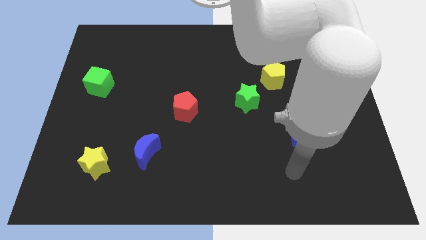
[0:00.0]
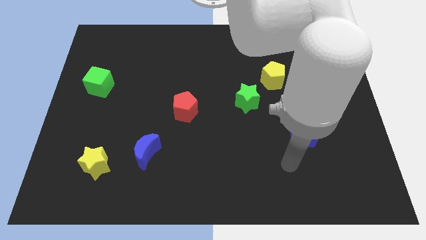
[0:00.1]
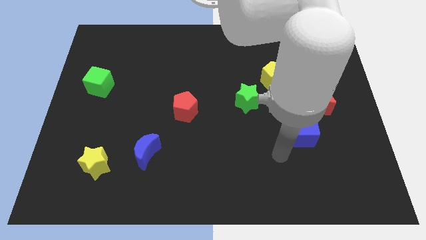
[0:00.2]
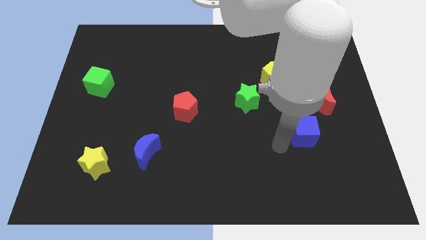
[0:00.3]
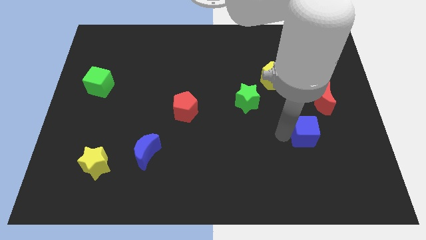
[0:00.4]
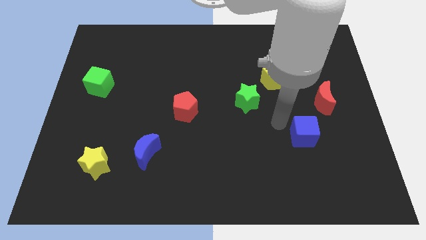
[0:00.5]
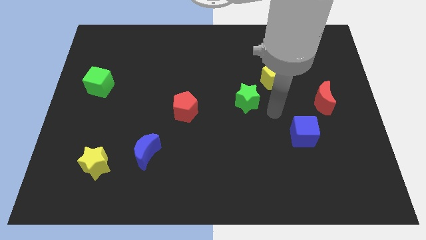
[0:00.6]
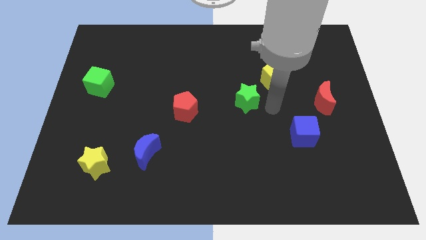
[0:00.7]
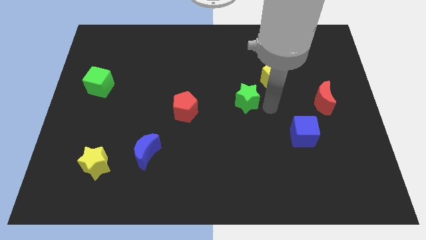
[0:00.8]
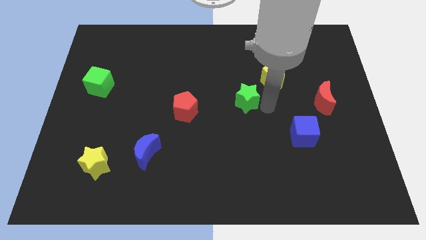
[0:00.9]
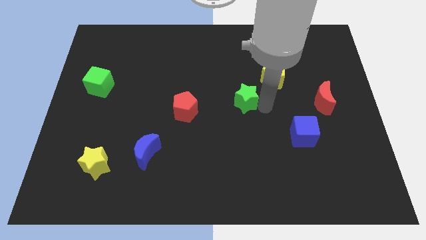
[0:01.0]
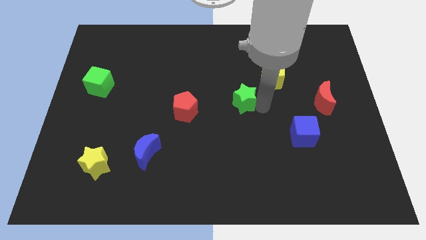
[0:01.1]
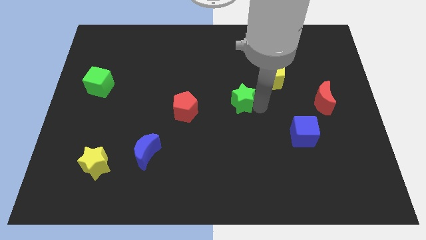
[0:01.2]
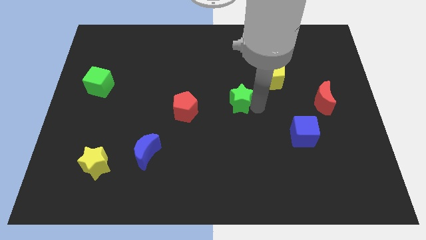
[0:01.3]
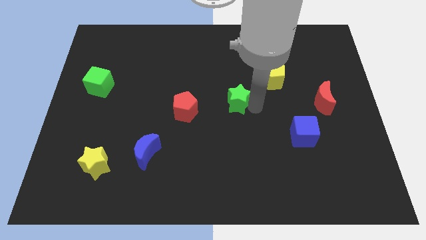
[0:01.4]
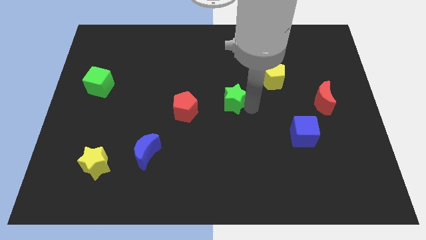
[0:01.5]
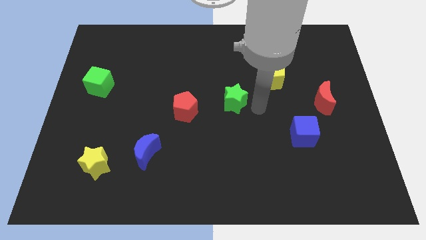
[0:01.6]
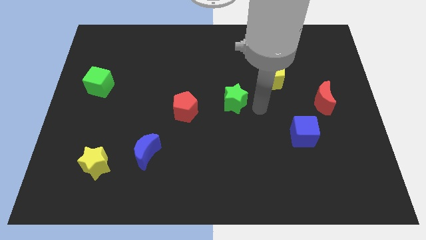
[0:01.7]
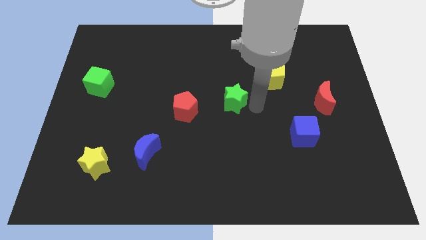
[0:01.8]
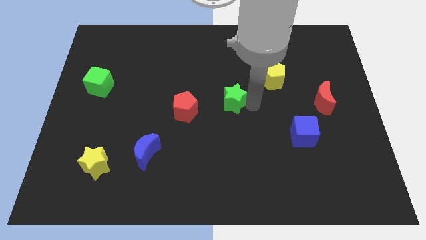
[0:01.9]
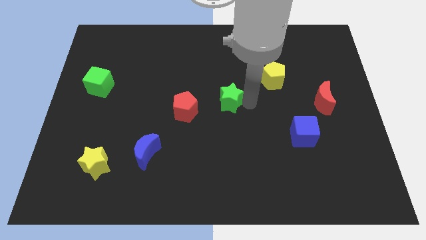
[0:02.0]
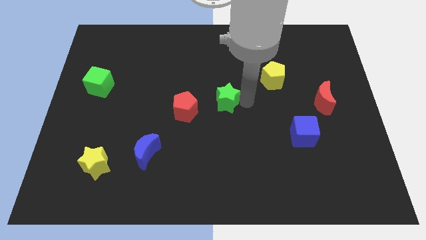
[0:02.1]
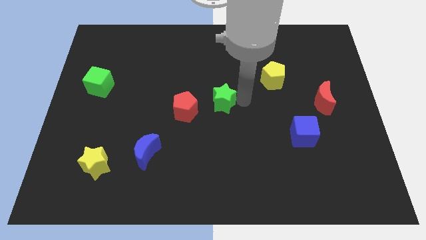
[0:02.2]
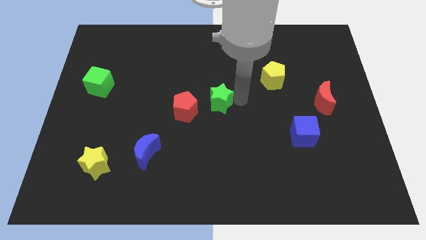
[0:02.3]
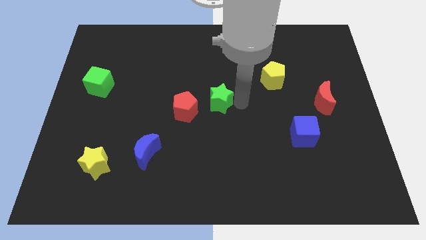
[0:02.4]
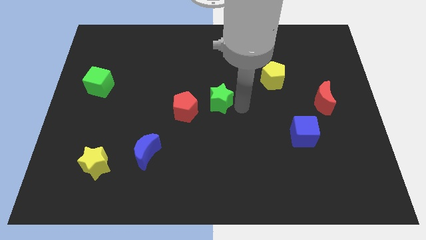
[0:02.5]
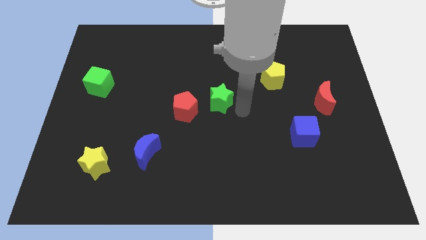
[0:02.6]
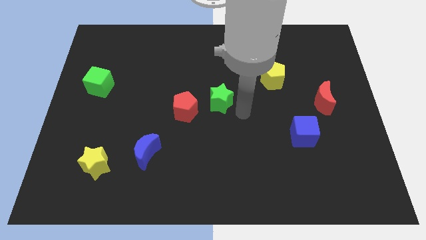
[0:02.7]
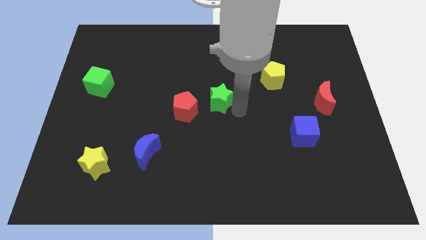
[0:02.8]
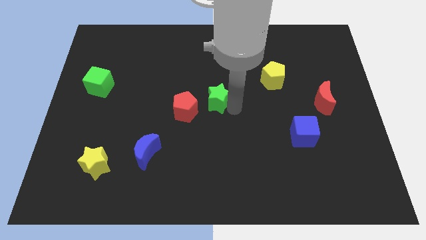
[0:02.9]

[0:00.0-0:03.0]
slide the green star to the left a bit

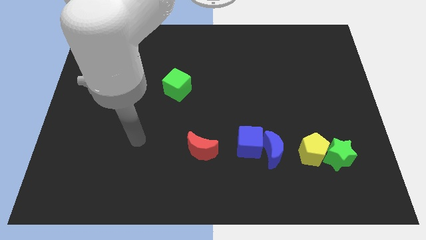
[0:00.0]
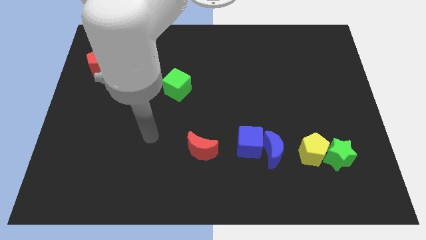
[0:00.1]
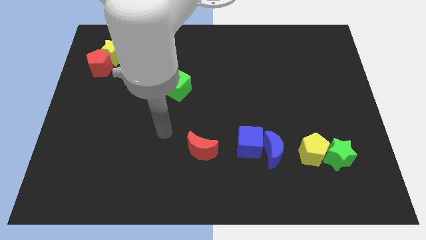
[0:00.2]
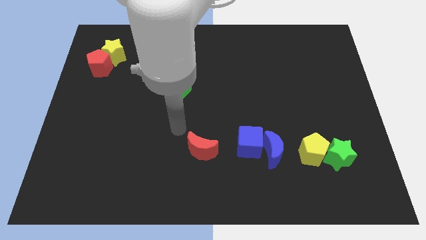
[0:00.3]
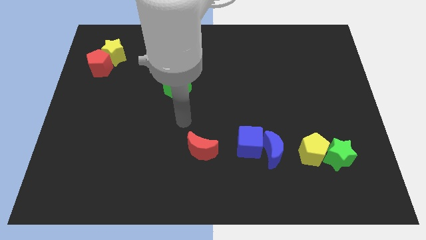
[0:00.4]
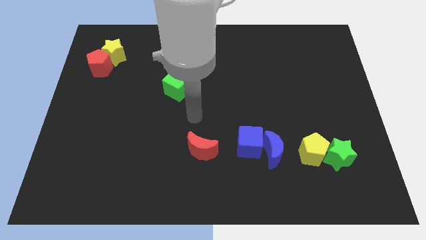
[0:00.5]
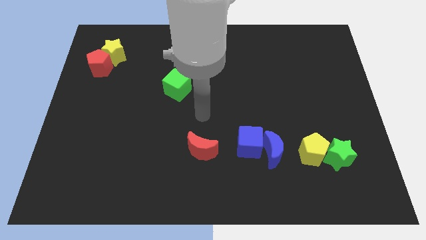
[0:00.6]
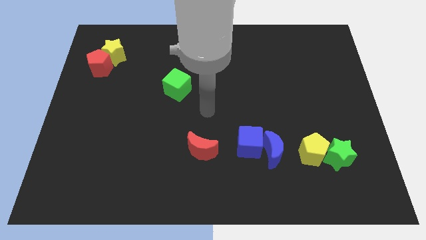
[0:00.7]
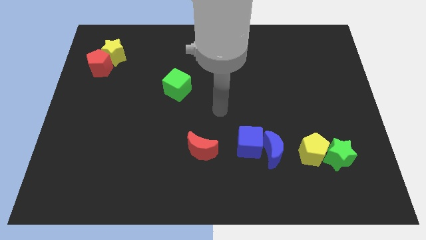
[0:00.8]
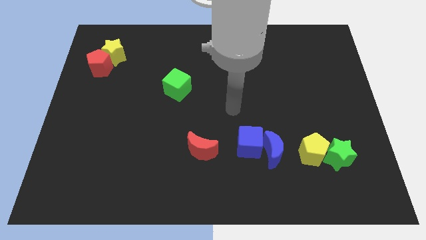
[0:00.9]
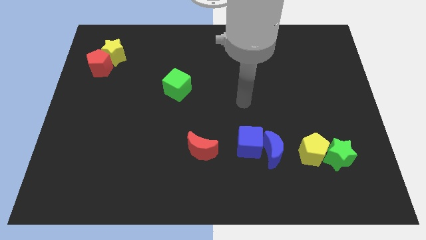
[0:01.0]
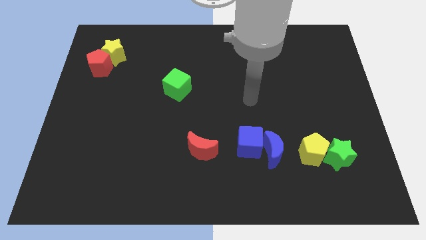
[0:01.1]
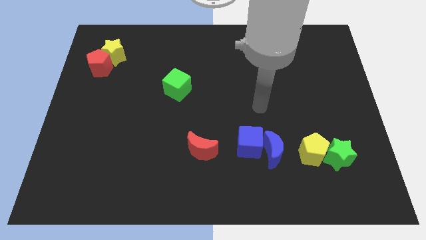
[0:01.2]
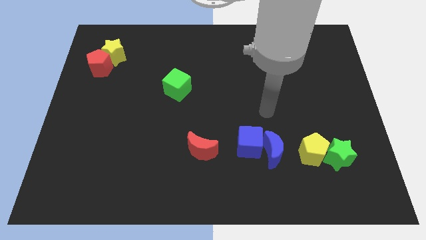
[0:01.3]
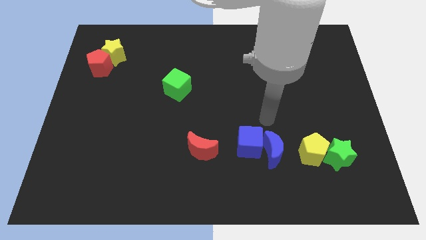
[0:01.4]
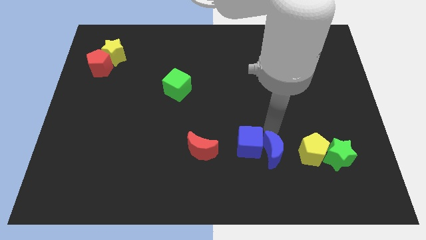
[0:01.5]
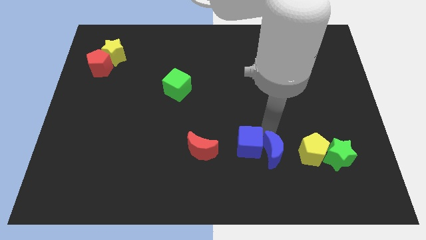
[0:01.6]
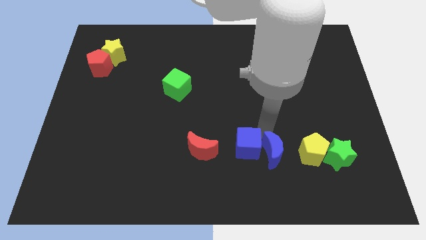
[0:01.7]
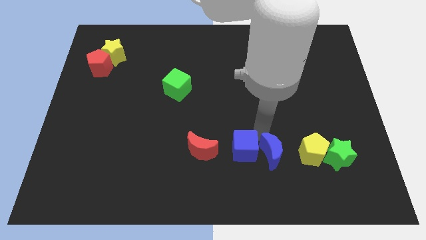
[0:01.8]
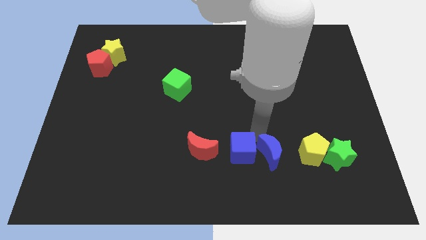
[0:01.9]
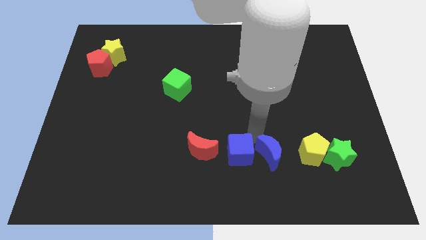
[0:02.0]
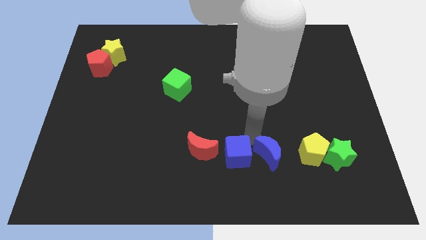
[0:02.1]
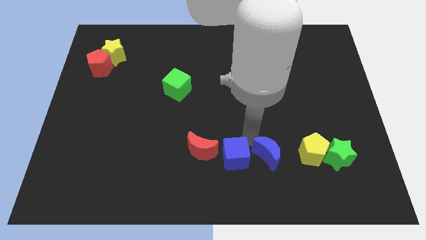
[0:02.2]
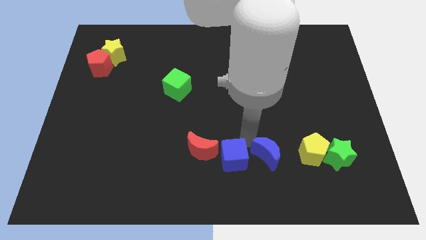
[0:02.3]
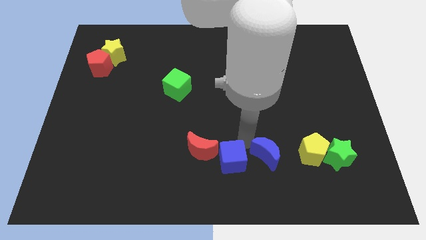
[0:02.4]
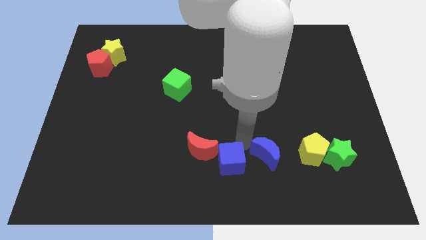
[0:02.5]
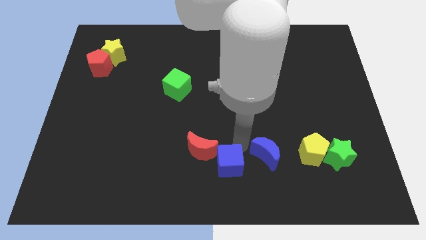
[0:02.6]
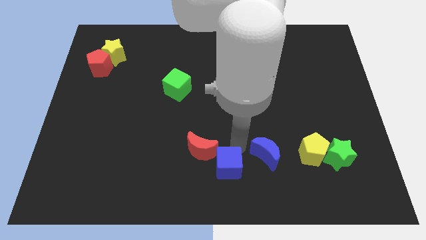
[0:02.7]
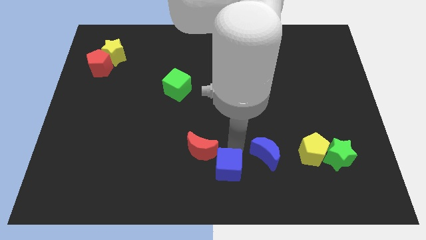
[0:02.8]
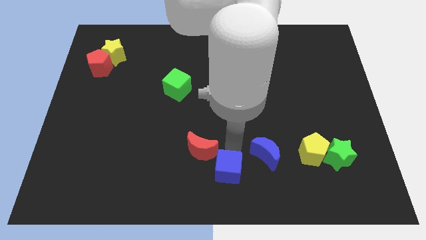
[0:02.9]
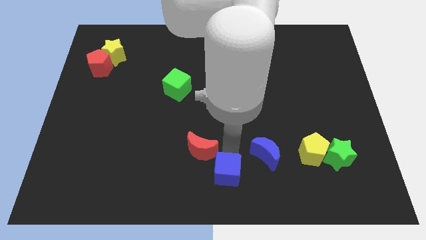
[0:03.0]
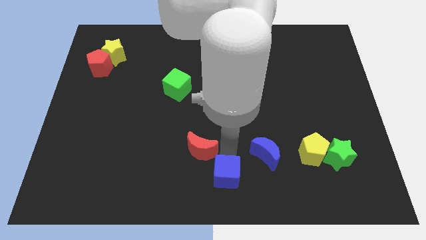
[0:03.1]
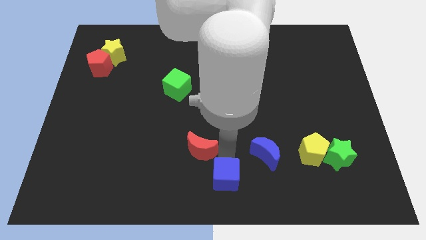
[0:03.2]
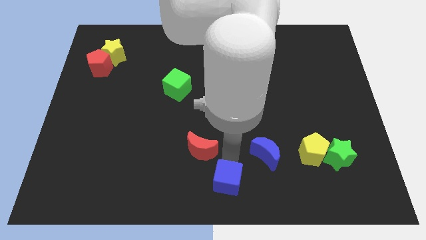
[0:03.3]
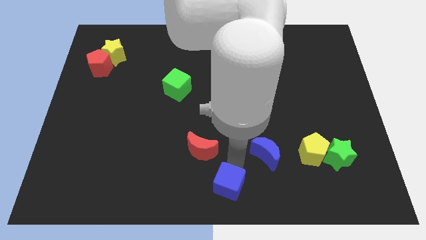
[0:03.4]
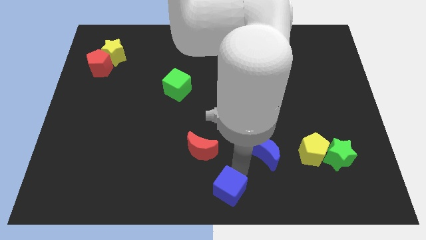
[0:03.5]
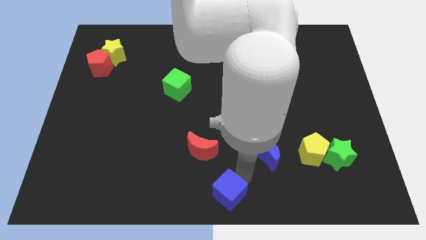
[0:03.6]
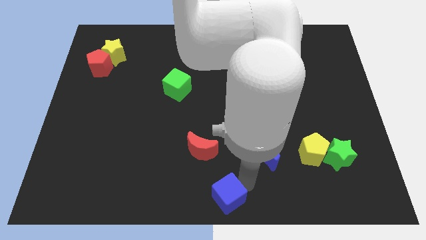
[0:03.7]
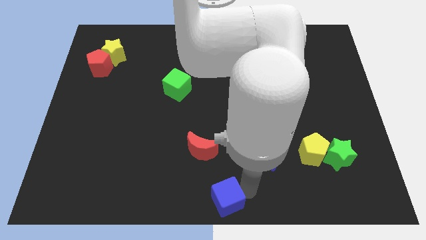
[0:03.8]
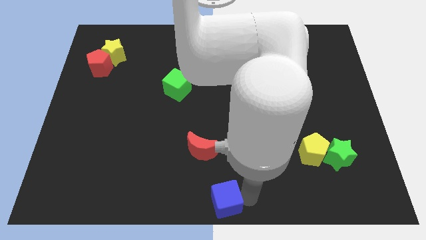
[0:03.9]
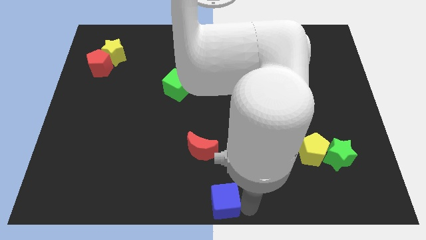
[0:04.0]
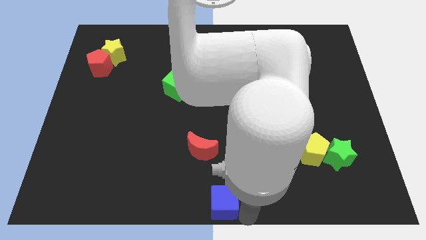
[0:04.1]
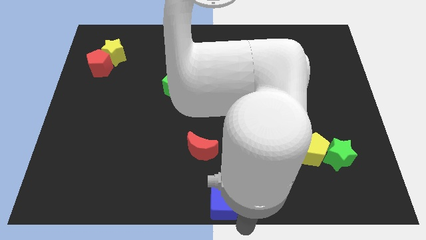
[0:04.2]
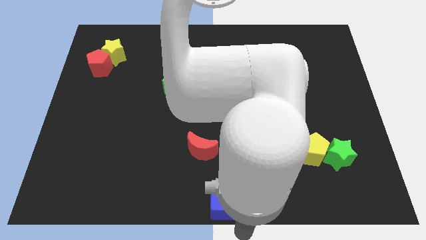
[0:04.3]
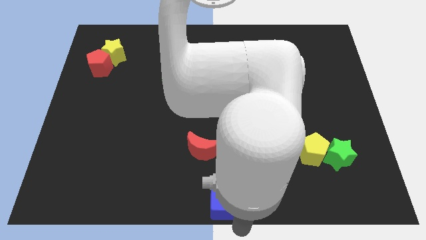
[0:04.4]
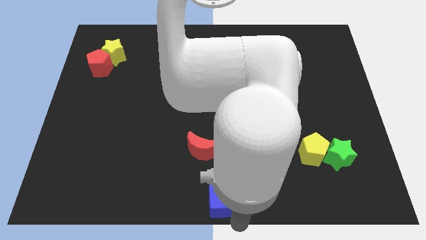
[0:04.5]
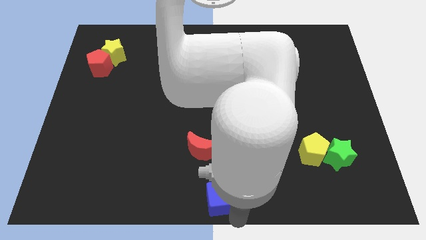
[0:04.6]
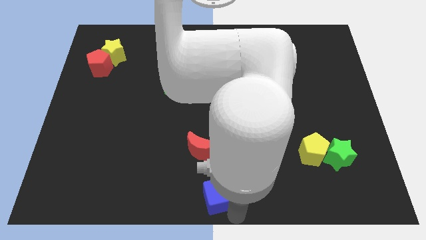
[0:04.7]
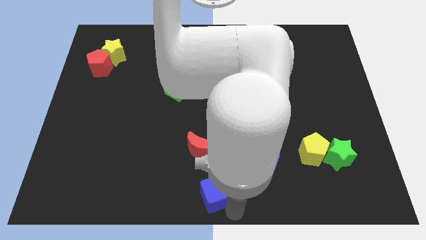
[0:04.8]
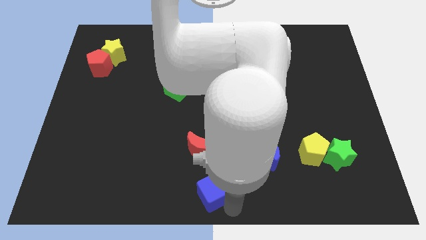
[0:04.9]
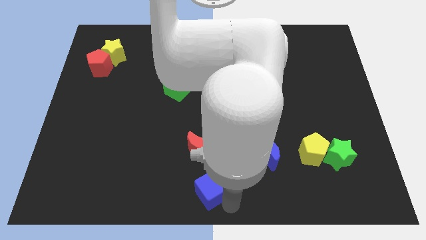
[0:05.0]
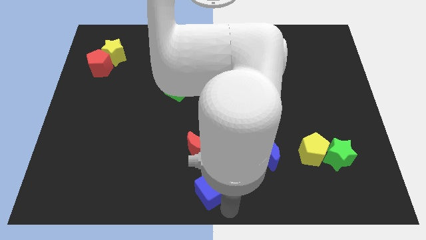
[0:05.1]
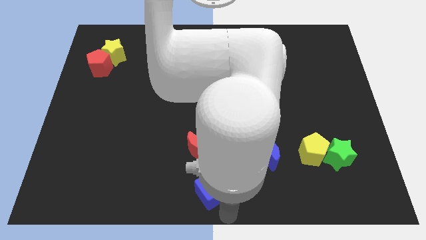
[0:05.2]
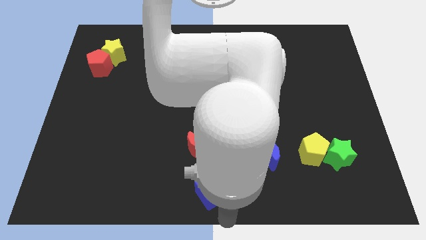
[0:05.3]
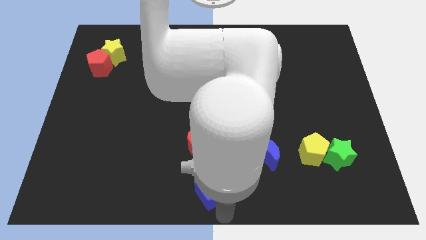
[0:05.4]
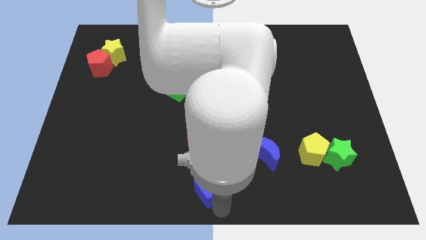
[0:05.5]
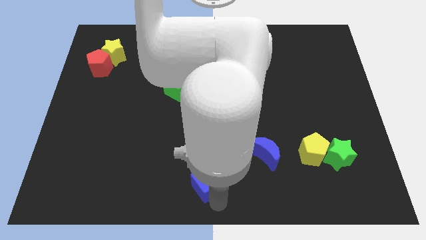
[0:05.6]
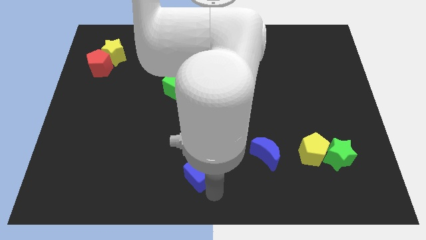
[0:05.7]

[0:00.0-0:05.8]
move the blue cube to the left slightly
